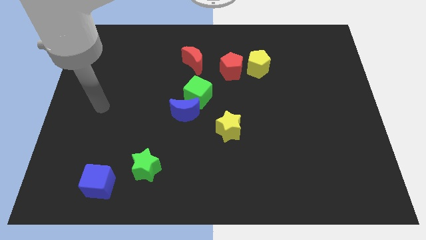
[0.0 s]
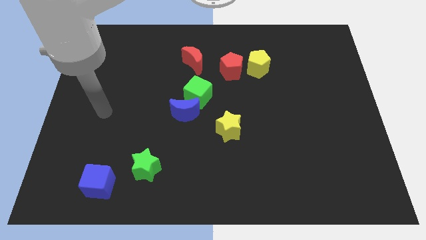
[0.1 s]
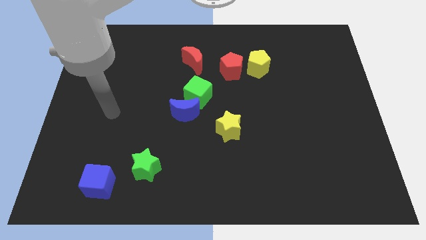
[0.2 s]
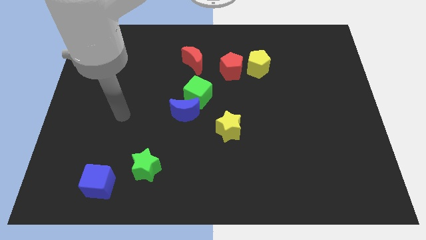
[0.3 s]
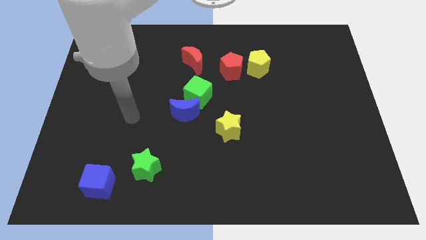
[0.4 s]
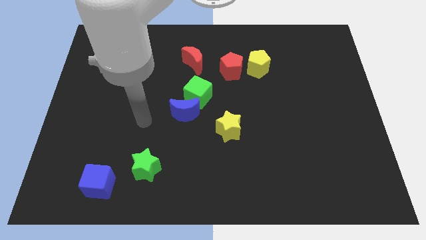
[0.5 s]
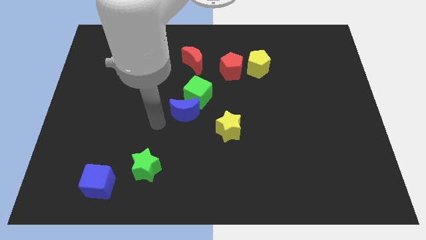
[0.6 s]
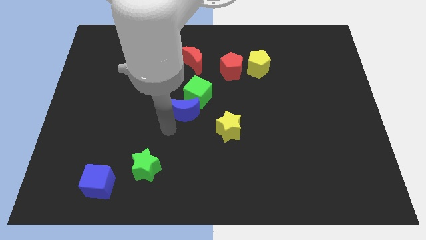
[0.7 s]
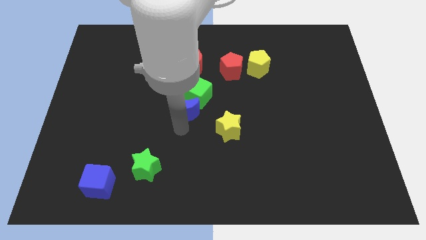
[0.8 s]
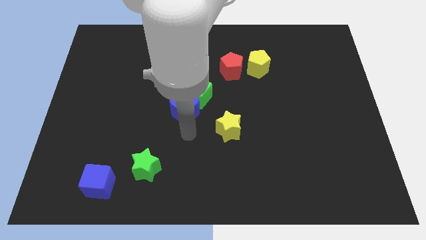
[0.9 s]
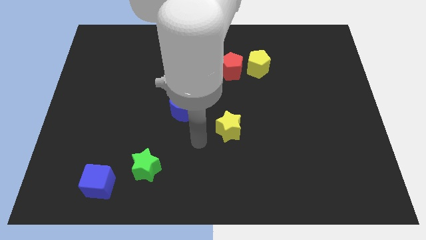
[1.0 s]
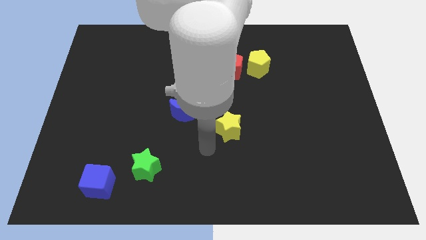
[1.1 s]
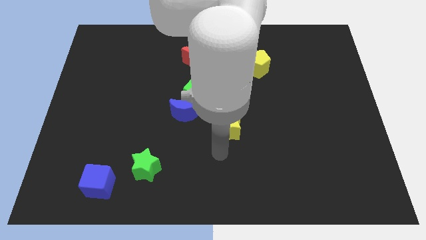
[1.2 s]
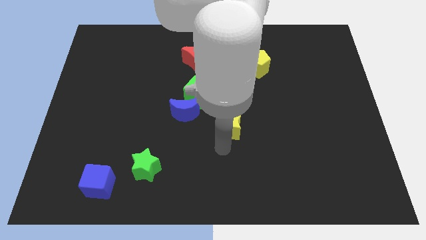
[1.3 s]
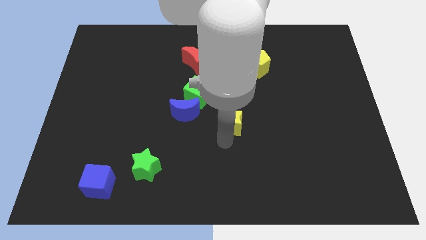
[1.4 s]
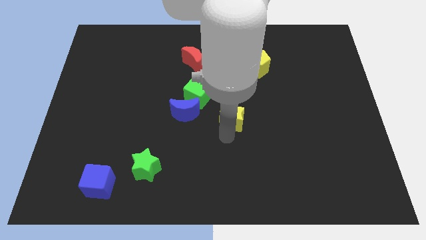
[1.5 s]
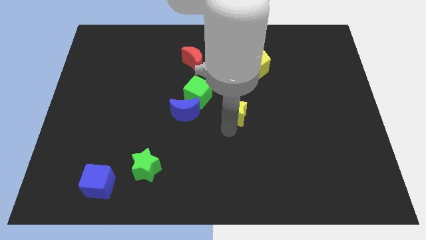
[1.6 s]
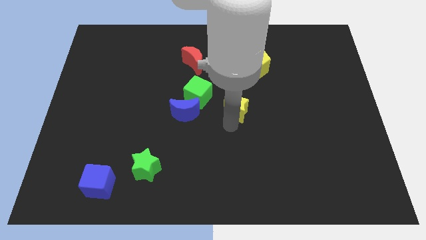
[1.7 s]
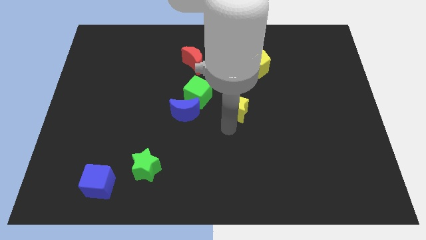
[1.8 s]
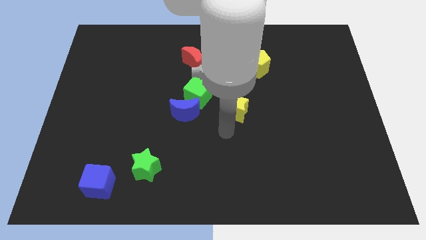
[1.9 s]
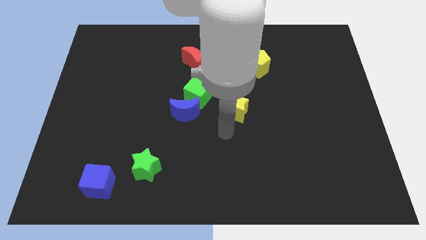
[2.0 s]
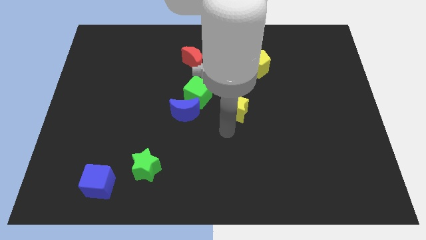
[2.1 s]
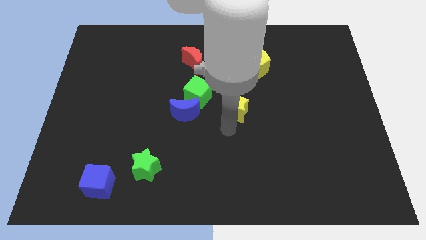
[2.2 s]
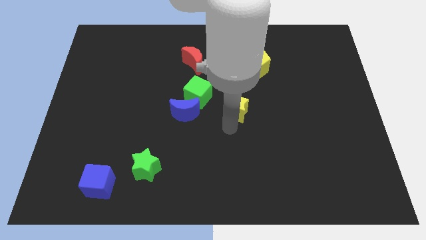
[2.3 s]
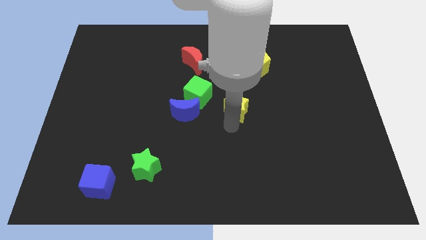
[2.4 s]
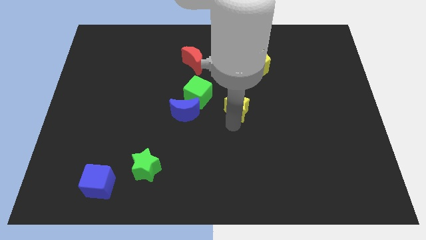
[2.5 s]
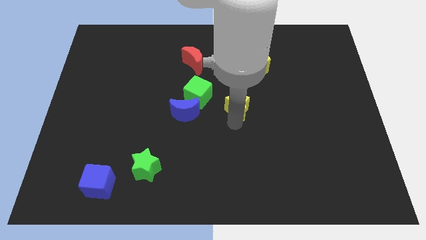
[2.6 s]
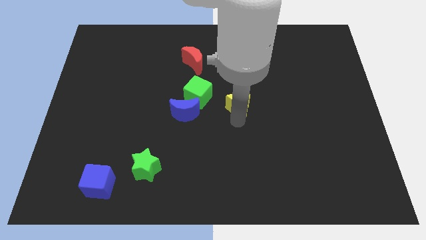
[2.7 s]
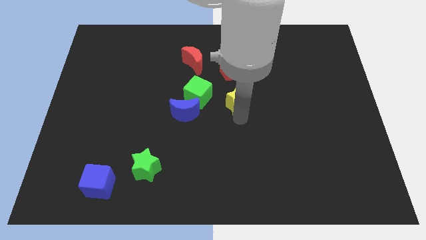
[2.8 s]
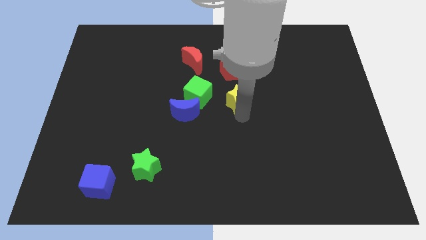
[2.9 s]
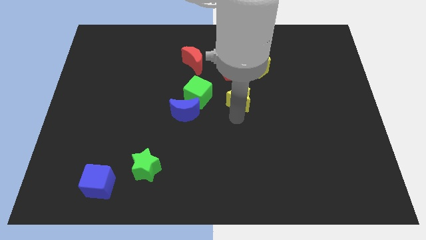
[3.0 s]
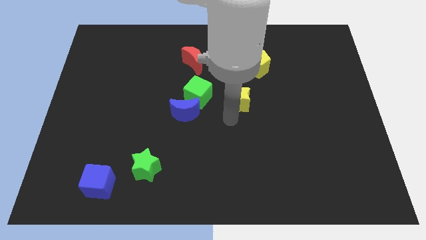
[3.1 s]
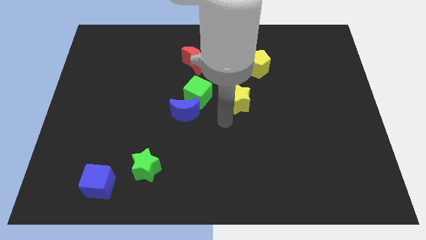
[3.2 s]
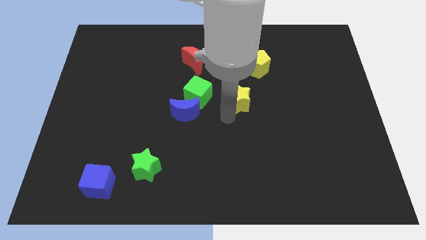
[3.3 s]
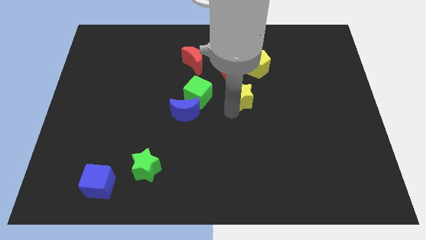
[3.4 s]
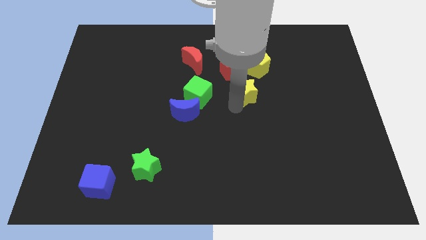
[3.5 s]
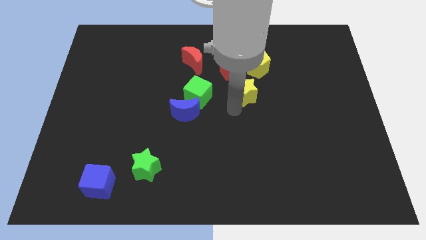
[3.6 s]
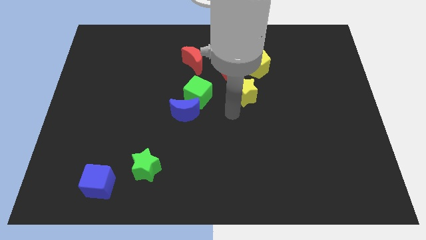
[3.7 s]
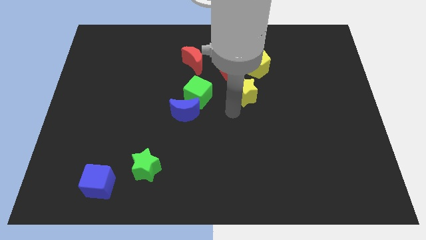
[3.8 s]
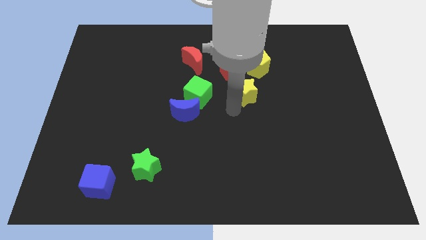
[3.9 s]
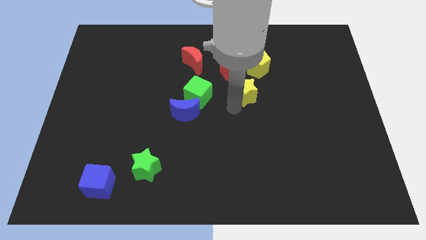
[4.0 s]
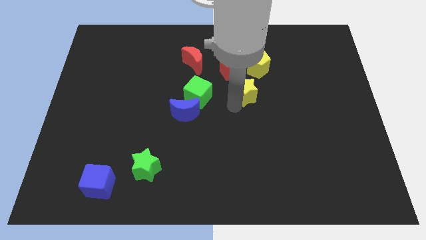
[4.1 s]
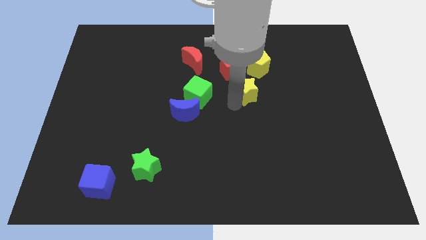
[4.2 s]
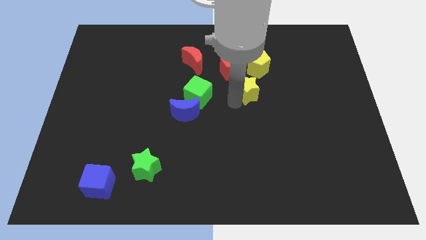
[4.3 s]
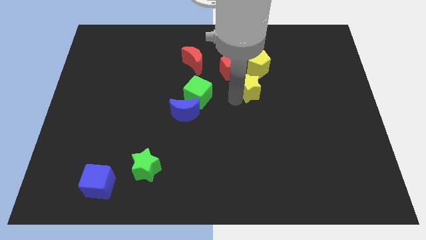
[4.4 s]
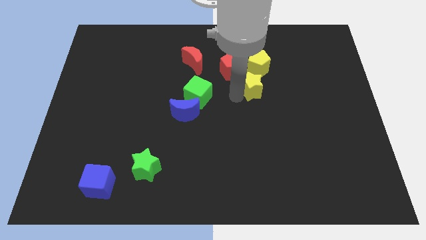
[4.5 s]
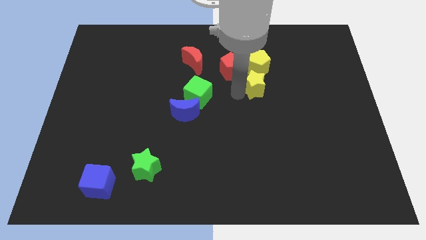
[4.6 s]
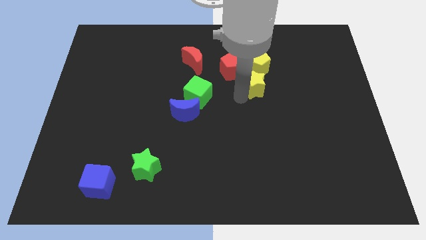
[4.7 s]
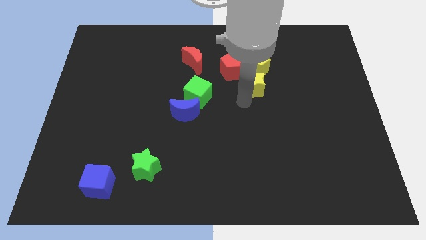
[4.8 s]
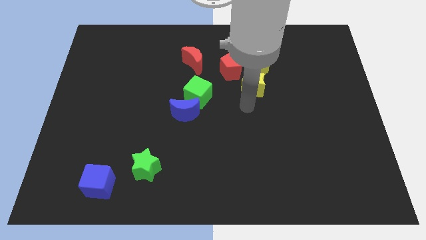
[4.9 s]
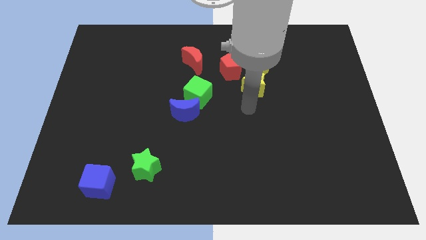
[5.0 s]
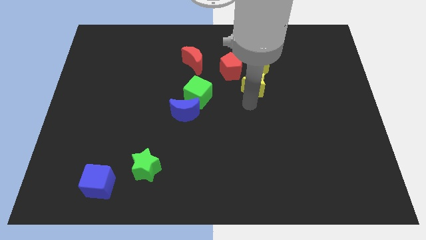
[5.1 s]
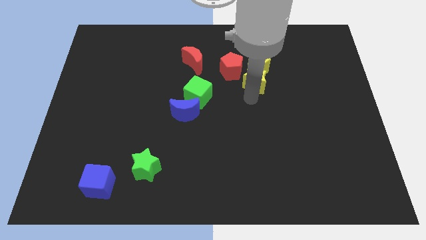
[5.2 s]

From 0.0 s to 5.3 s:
move the yellow star next to the yellow pentagon

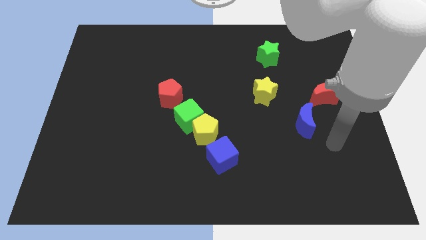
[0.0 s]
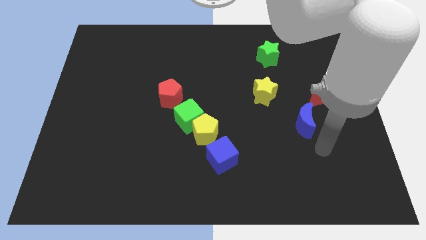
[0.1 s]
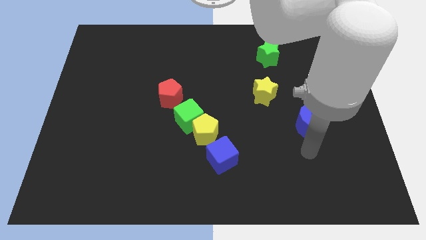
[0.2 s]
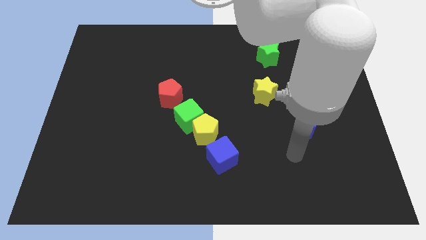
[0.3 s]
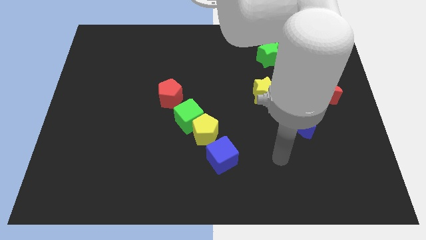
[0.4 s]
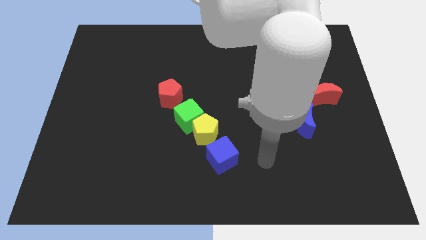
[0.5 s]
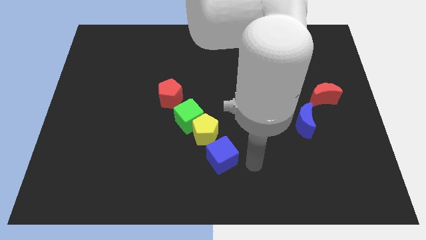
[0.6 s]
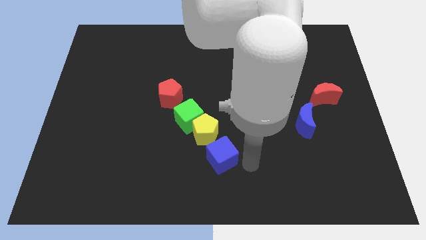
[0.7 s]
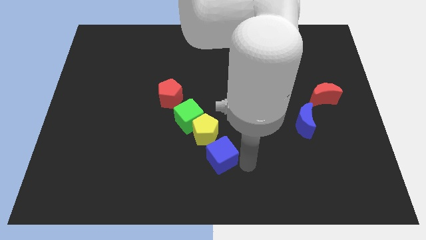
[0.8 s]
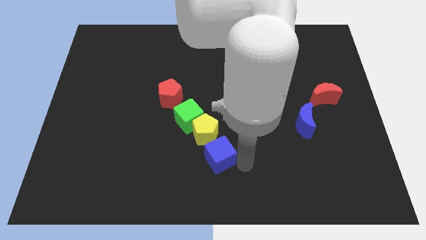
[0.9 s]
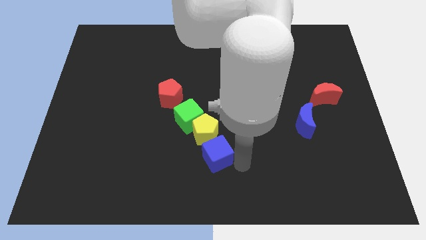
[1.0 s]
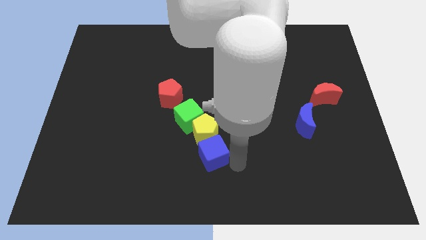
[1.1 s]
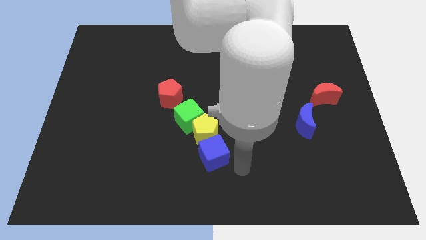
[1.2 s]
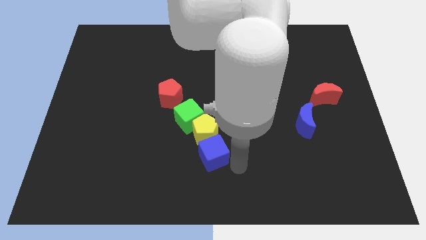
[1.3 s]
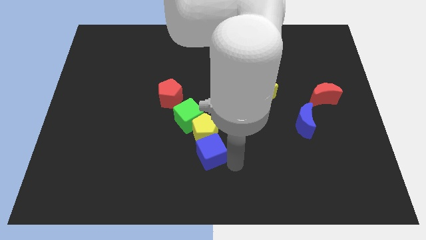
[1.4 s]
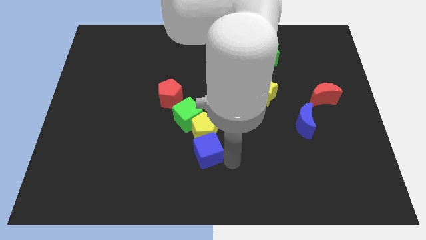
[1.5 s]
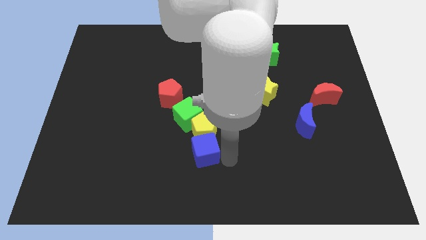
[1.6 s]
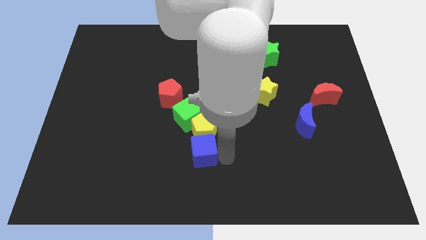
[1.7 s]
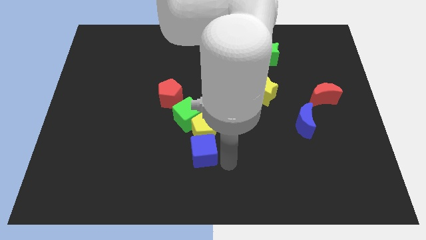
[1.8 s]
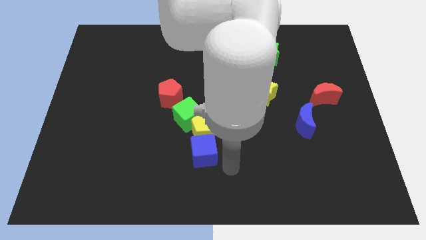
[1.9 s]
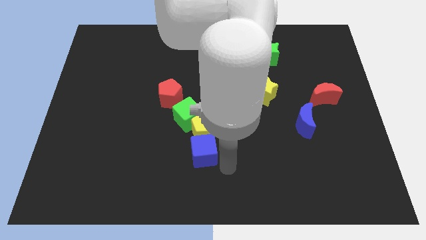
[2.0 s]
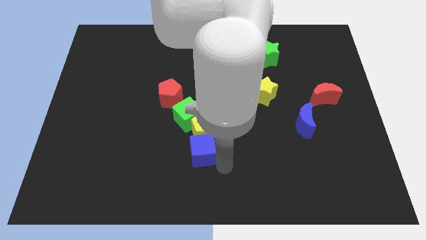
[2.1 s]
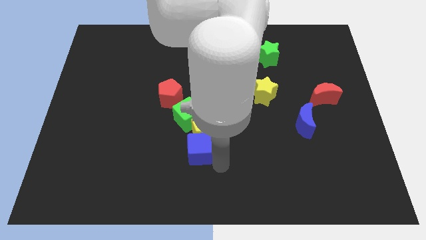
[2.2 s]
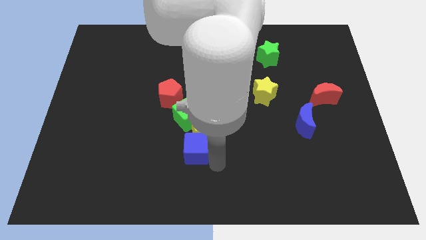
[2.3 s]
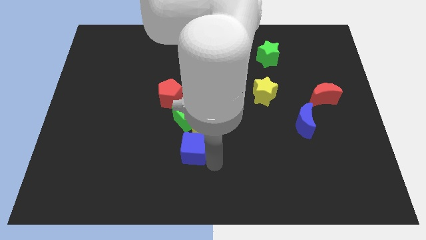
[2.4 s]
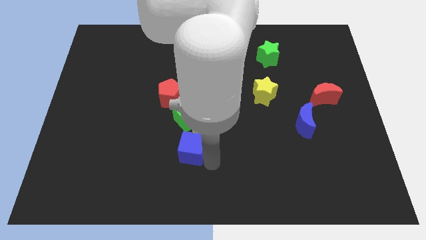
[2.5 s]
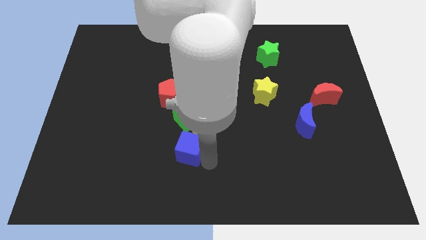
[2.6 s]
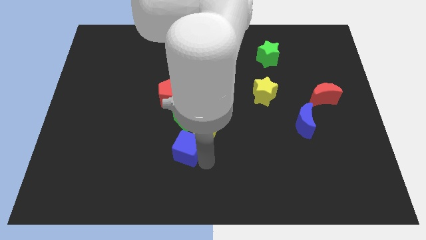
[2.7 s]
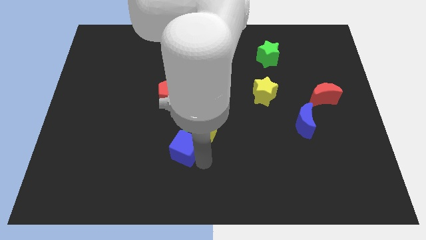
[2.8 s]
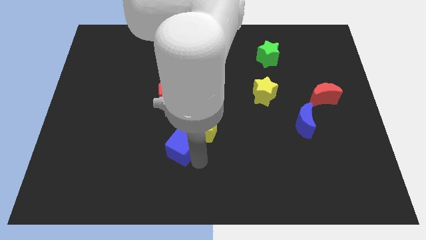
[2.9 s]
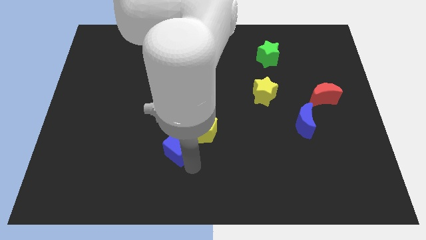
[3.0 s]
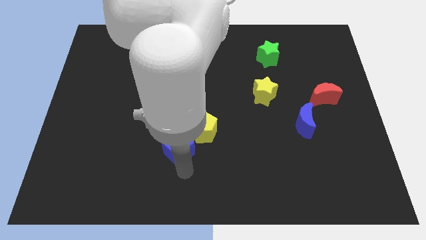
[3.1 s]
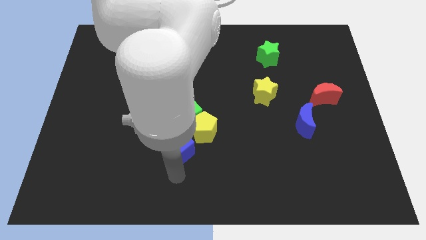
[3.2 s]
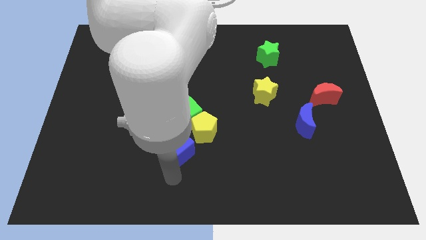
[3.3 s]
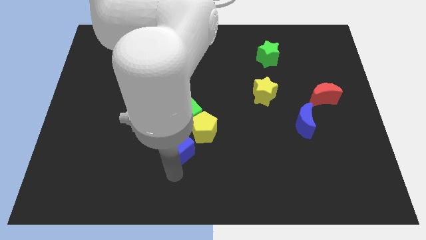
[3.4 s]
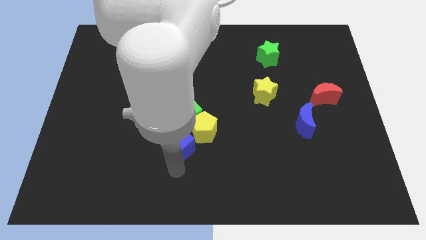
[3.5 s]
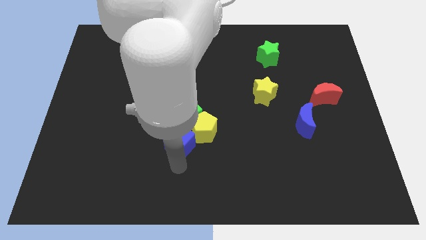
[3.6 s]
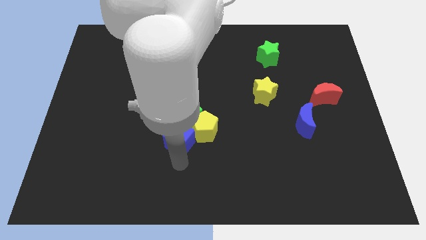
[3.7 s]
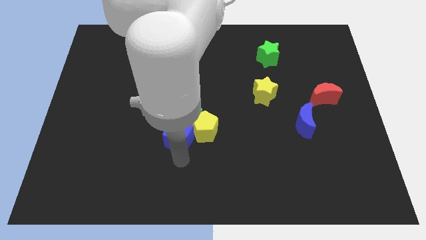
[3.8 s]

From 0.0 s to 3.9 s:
move the blue cube next to the green cube
